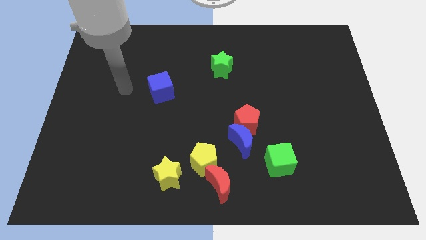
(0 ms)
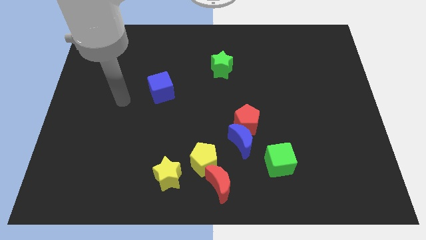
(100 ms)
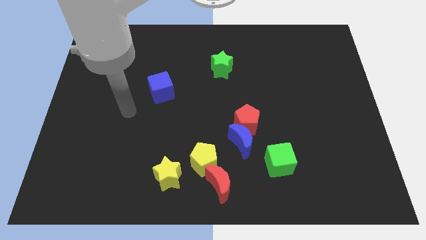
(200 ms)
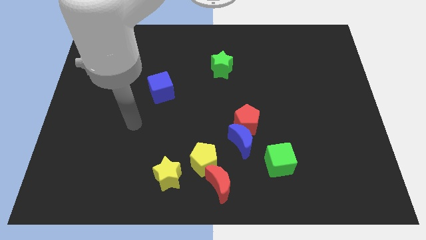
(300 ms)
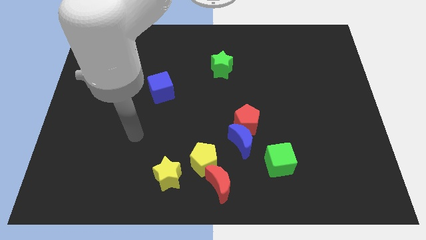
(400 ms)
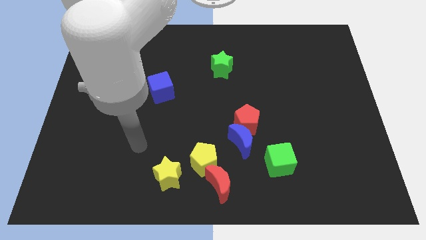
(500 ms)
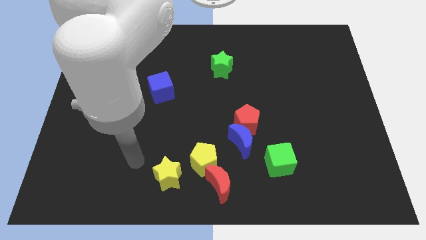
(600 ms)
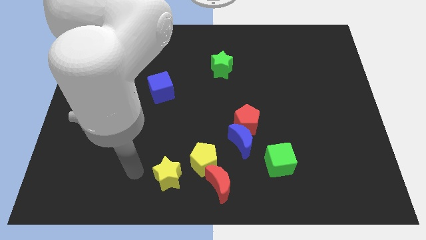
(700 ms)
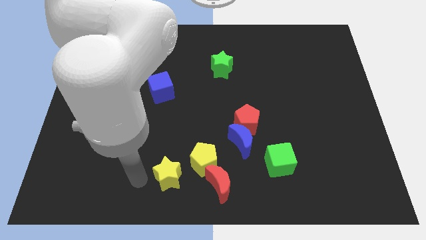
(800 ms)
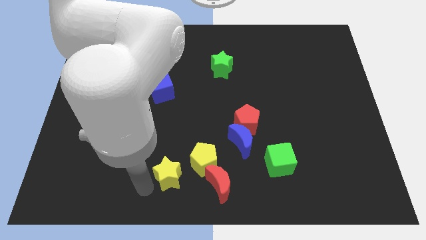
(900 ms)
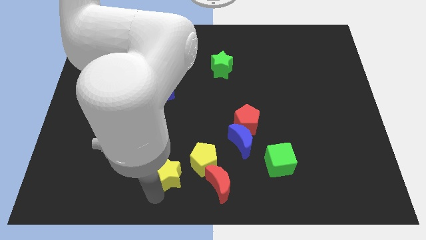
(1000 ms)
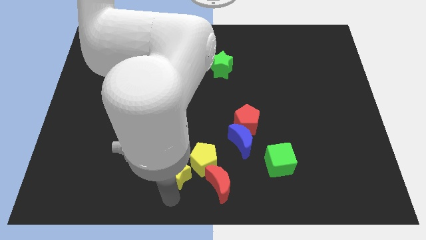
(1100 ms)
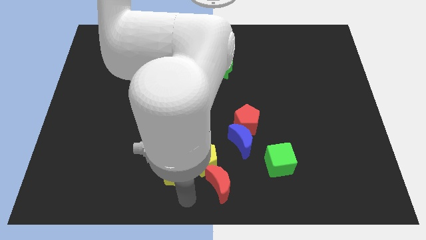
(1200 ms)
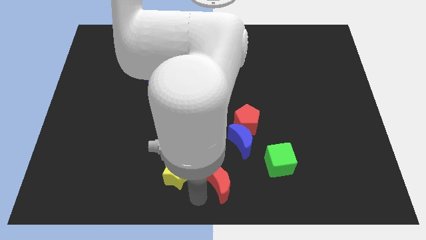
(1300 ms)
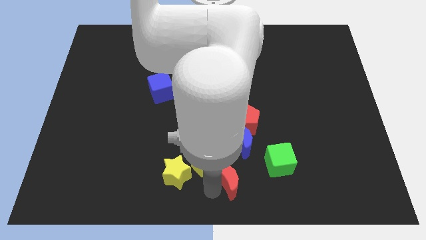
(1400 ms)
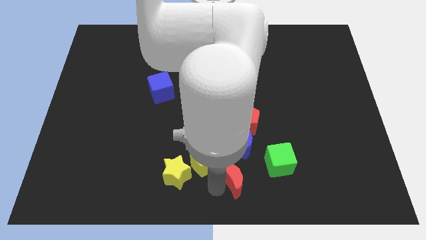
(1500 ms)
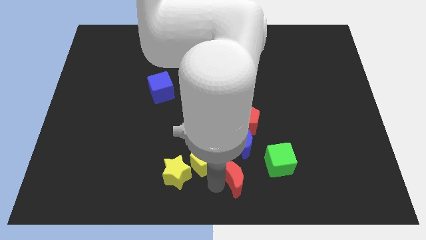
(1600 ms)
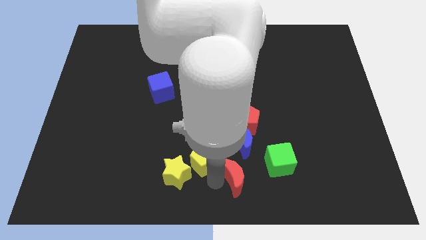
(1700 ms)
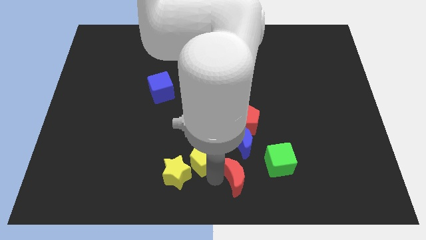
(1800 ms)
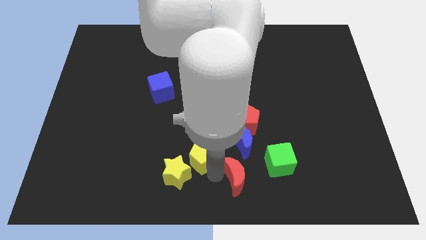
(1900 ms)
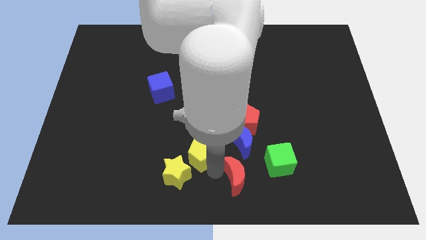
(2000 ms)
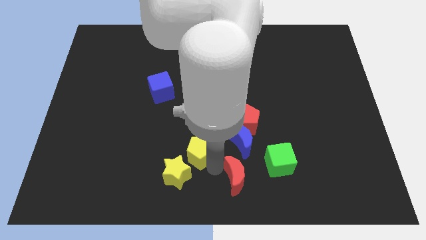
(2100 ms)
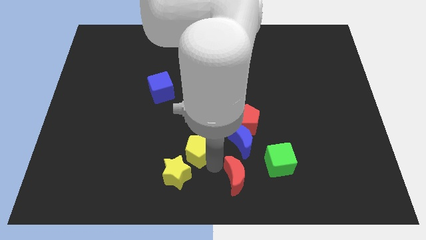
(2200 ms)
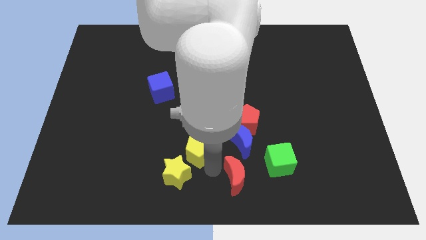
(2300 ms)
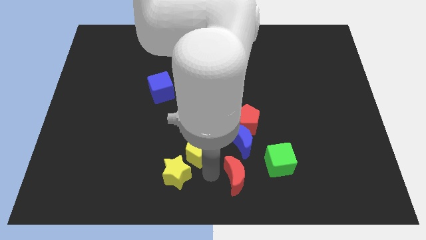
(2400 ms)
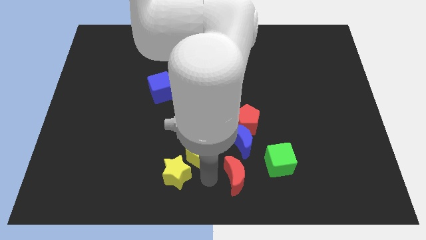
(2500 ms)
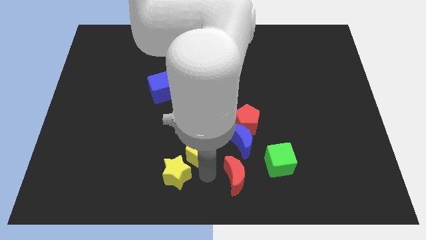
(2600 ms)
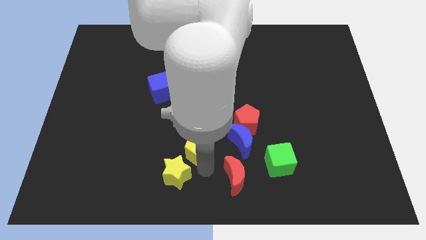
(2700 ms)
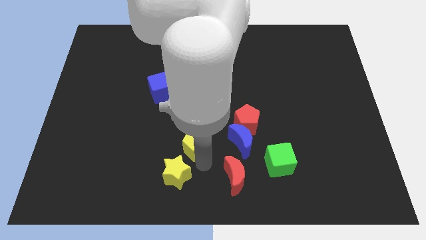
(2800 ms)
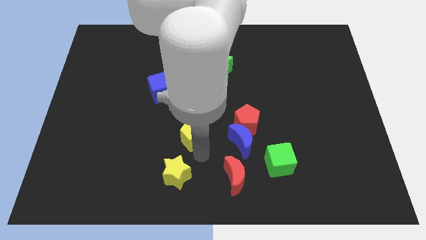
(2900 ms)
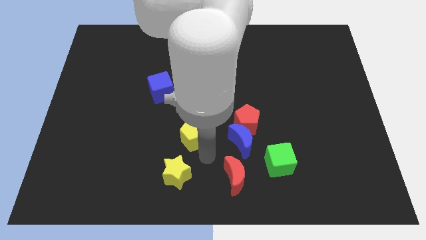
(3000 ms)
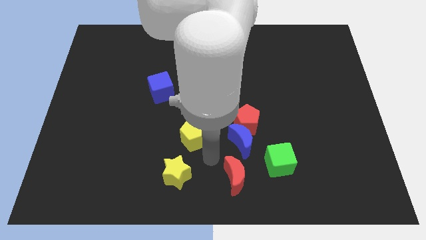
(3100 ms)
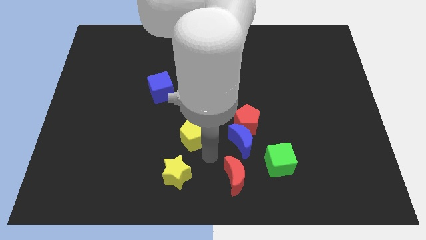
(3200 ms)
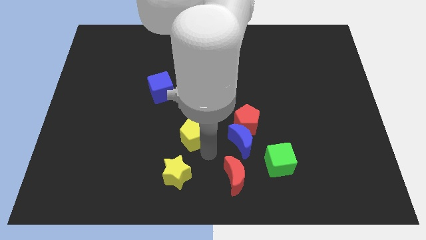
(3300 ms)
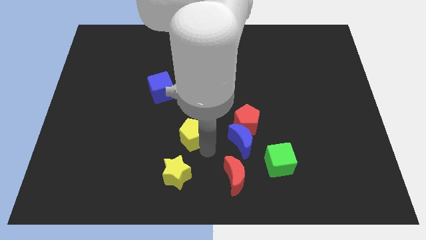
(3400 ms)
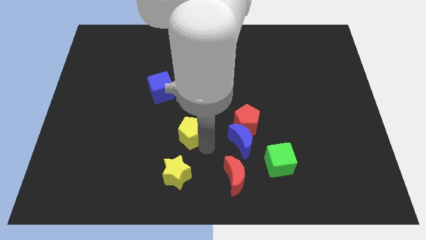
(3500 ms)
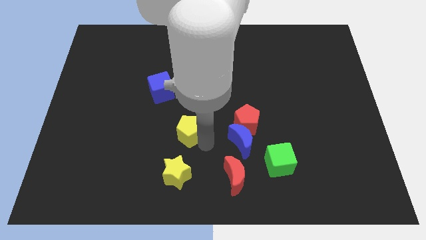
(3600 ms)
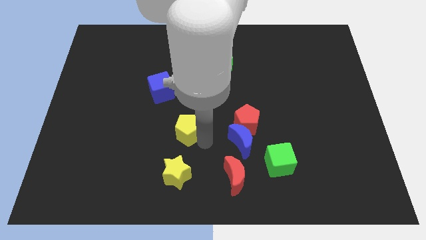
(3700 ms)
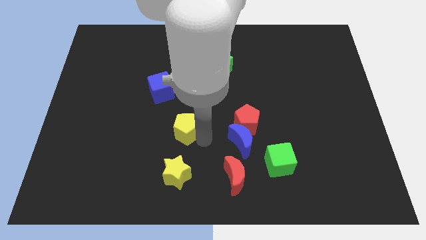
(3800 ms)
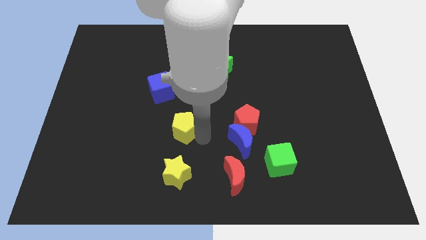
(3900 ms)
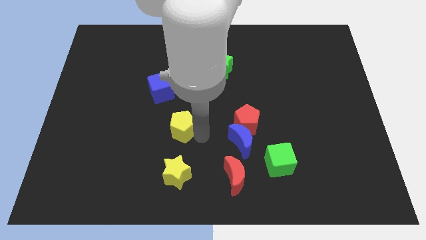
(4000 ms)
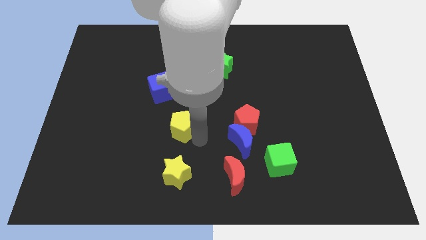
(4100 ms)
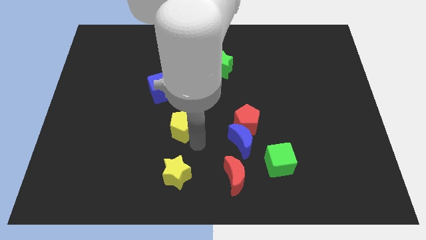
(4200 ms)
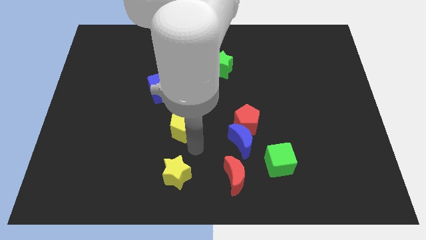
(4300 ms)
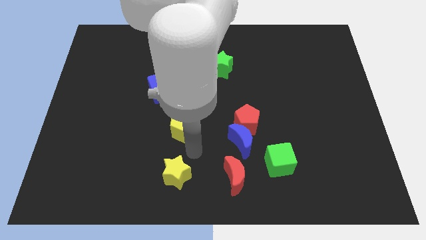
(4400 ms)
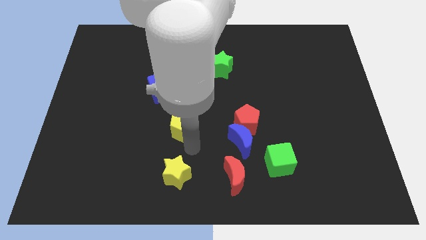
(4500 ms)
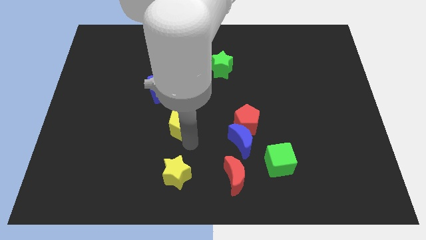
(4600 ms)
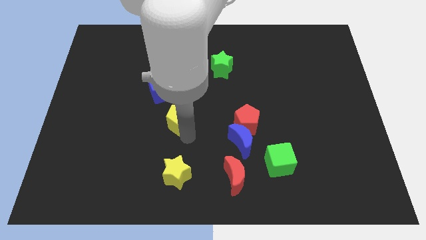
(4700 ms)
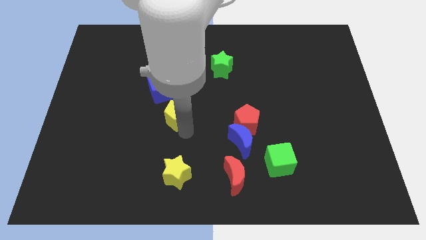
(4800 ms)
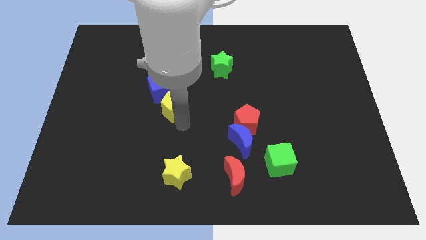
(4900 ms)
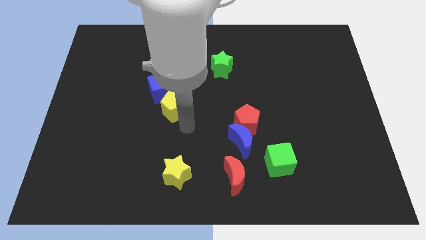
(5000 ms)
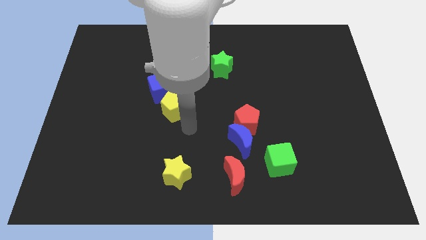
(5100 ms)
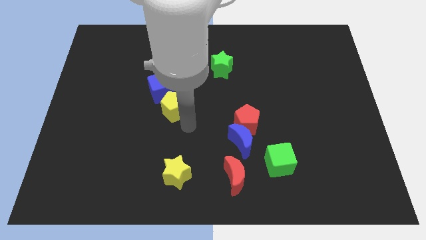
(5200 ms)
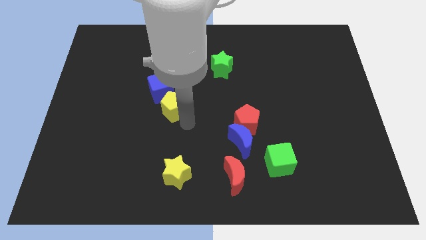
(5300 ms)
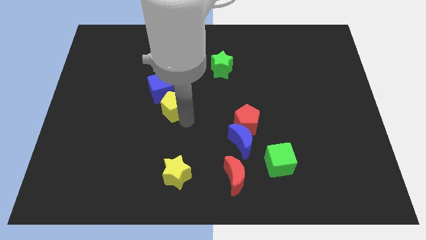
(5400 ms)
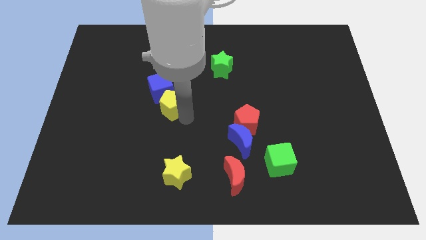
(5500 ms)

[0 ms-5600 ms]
put the yellow pentagon next to the blue cube

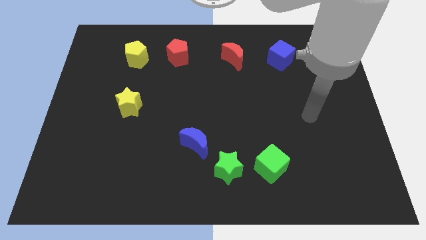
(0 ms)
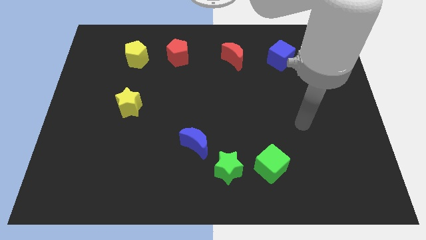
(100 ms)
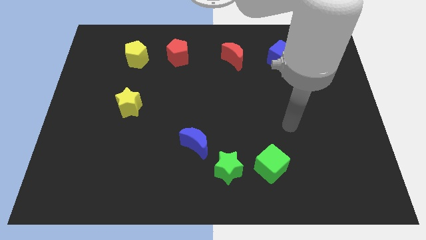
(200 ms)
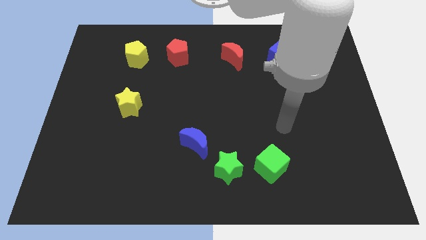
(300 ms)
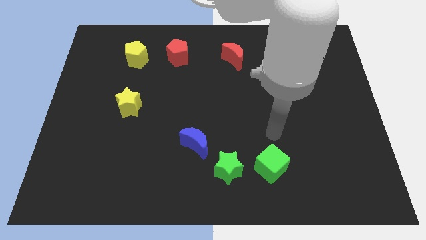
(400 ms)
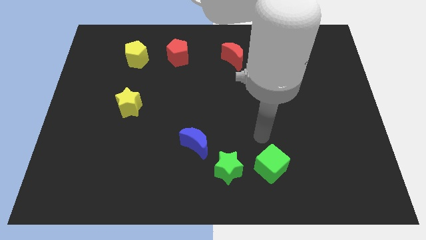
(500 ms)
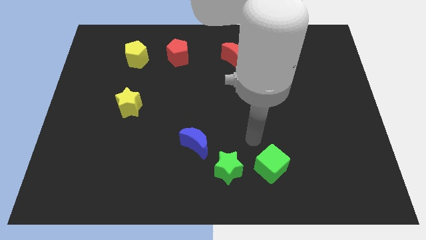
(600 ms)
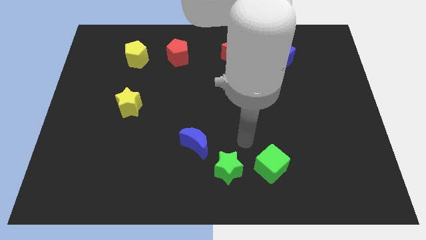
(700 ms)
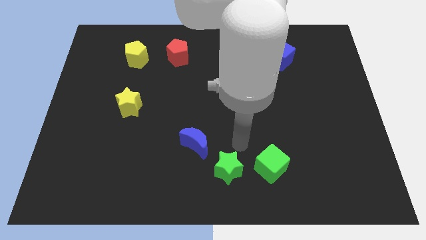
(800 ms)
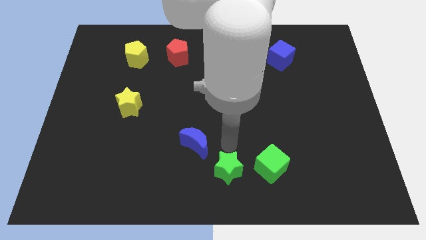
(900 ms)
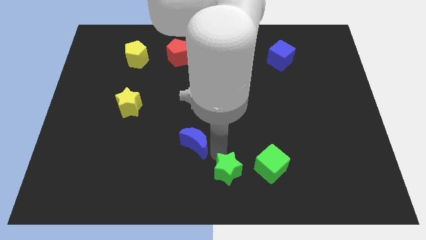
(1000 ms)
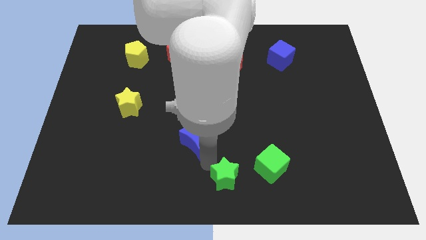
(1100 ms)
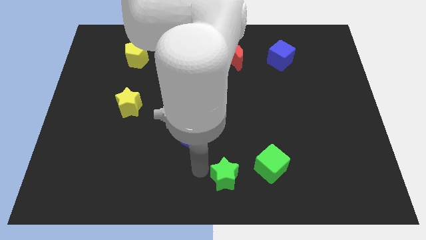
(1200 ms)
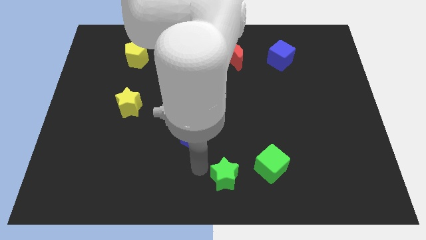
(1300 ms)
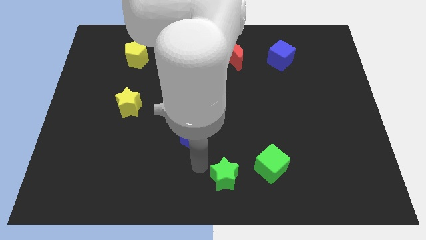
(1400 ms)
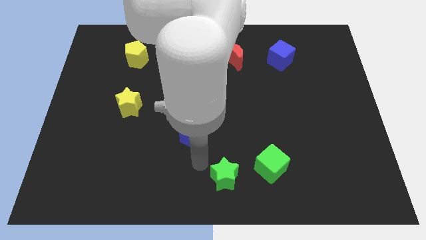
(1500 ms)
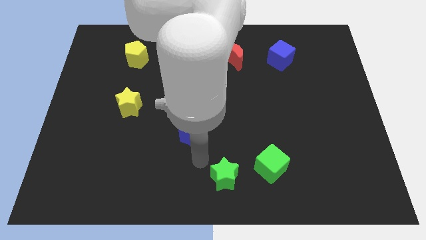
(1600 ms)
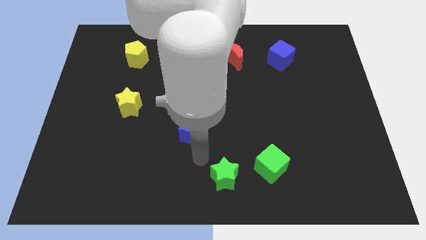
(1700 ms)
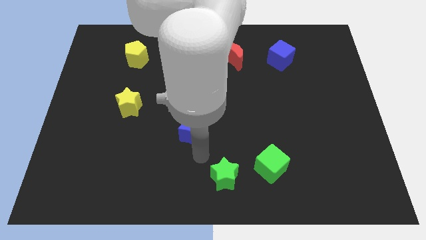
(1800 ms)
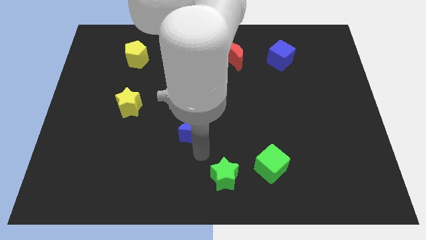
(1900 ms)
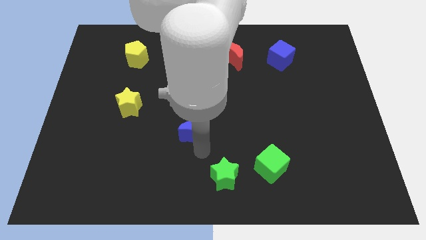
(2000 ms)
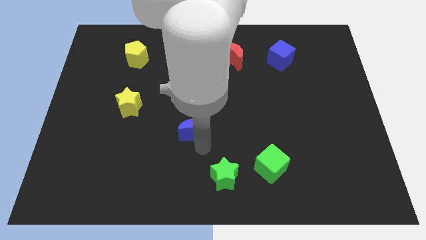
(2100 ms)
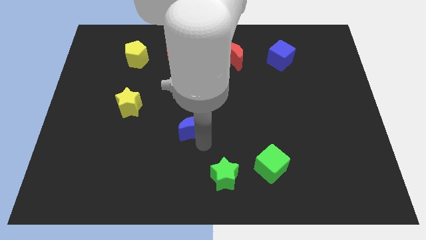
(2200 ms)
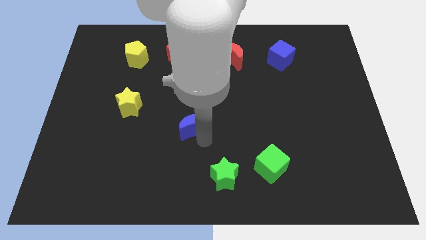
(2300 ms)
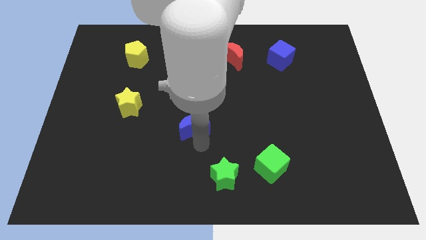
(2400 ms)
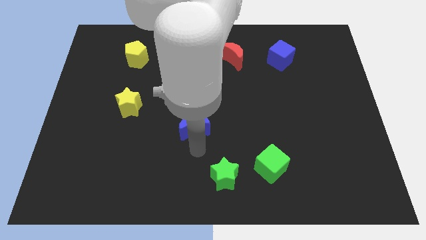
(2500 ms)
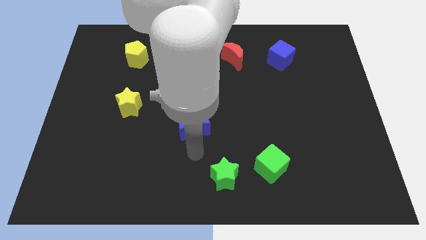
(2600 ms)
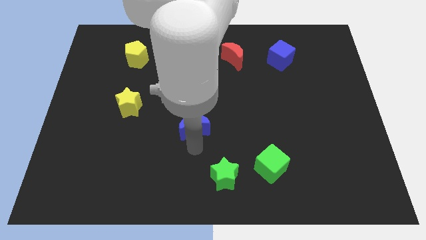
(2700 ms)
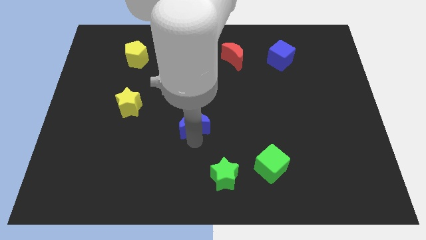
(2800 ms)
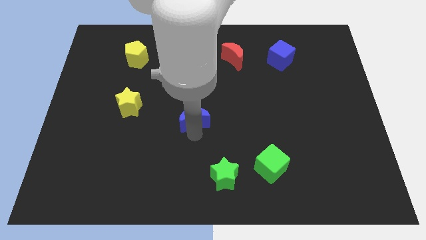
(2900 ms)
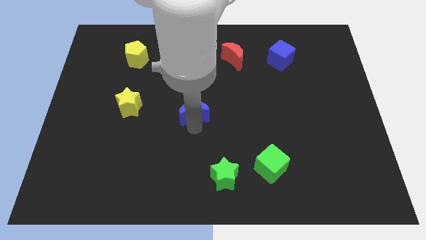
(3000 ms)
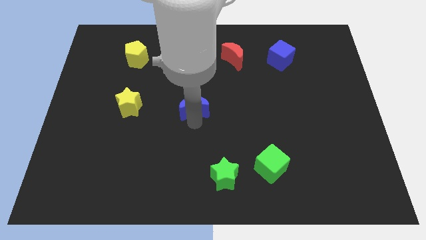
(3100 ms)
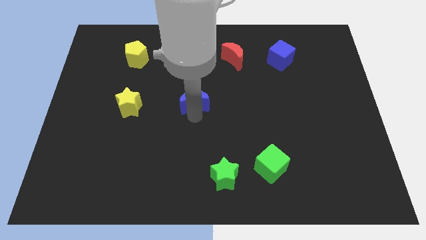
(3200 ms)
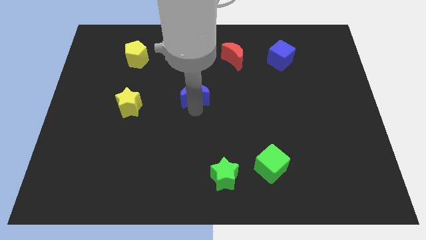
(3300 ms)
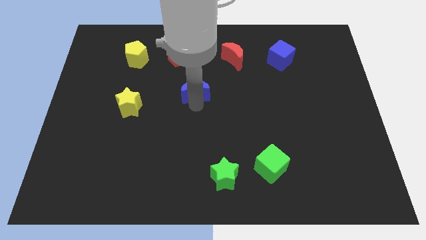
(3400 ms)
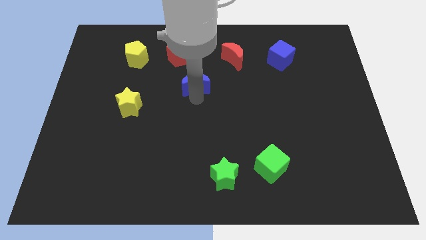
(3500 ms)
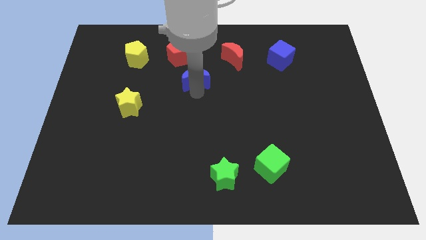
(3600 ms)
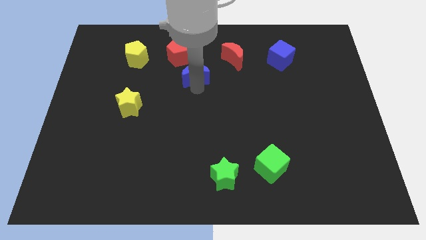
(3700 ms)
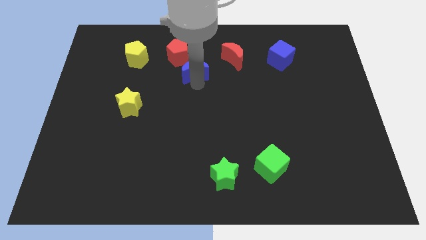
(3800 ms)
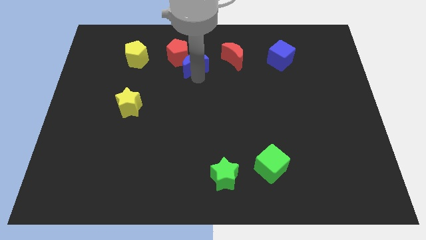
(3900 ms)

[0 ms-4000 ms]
move the blue moon towards the red pentagon
